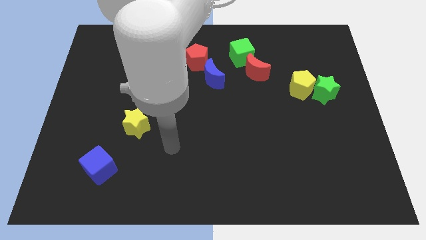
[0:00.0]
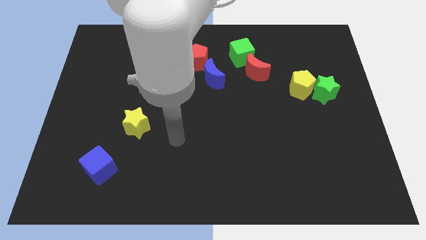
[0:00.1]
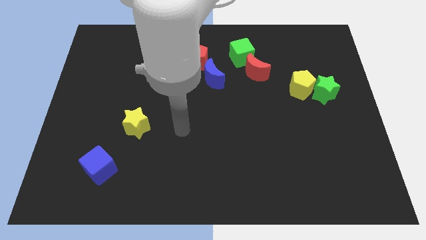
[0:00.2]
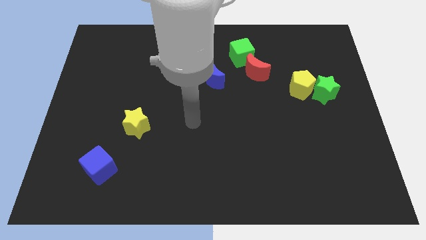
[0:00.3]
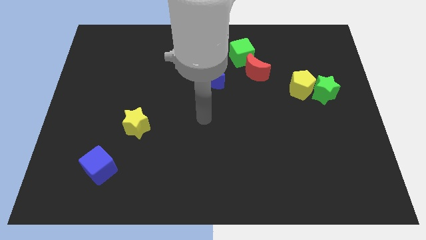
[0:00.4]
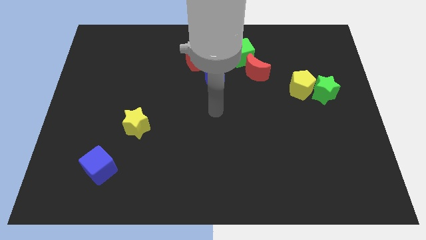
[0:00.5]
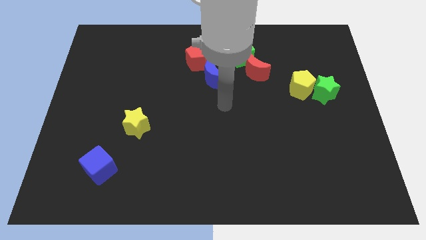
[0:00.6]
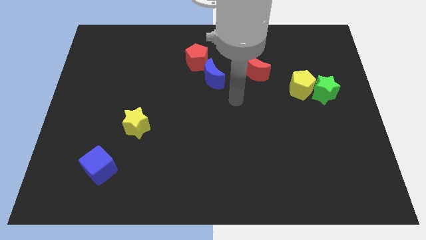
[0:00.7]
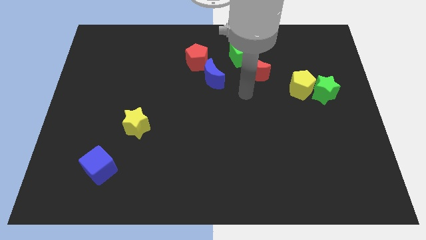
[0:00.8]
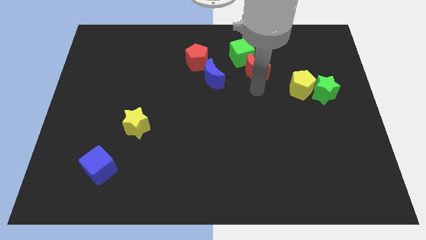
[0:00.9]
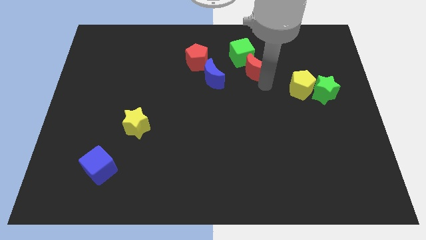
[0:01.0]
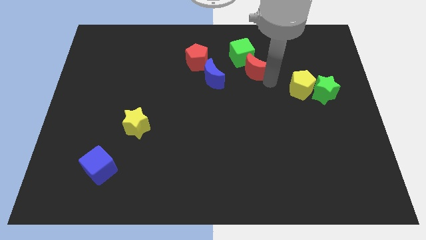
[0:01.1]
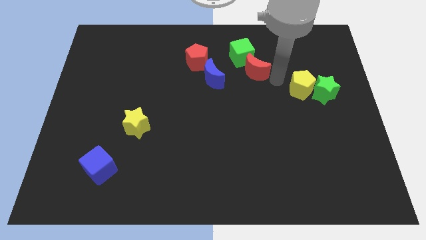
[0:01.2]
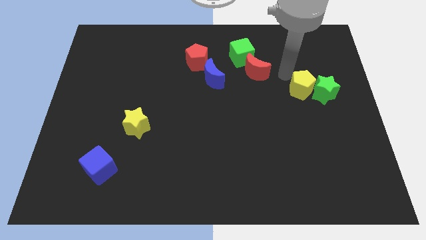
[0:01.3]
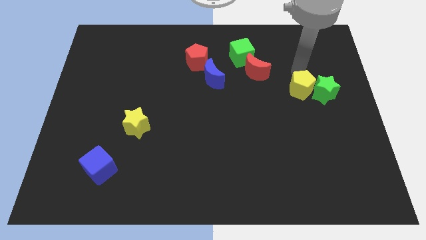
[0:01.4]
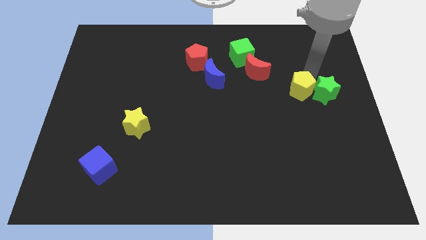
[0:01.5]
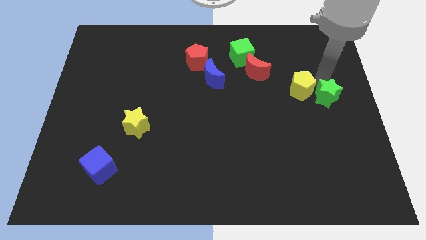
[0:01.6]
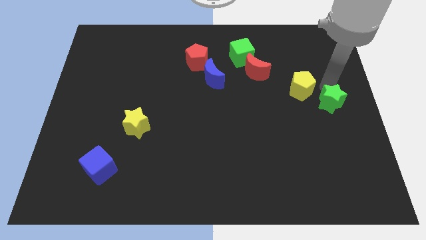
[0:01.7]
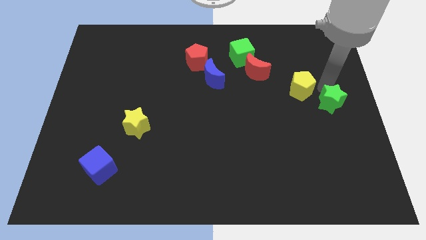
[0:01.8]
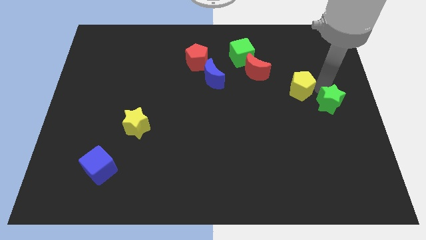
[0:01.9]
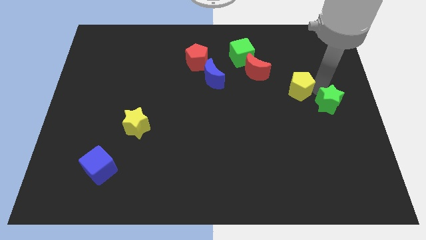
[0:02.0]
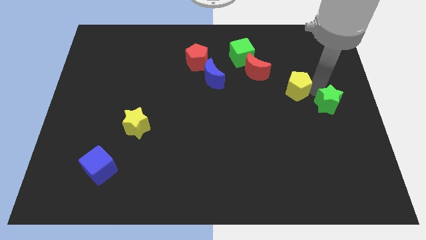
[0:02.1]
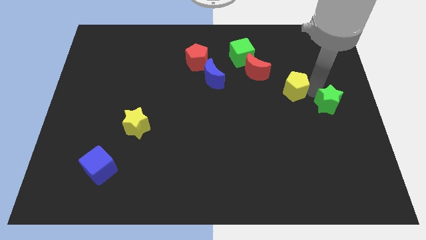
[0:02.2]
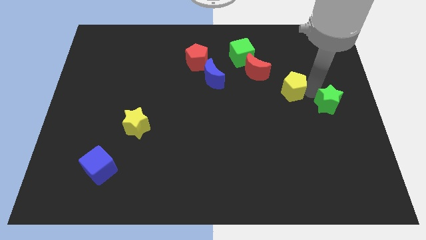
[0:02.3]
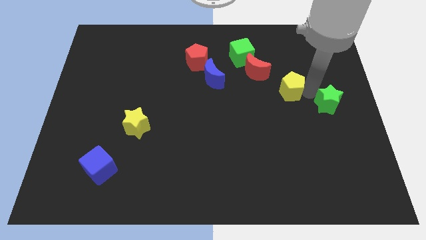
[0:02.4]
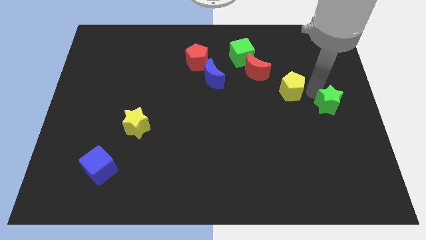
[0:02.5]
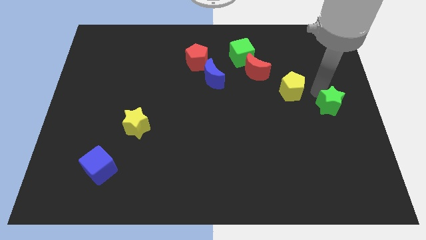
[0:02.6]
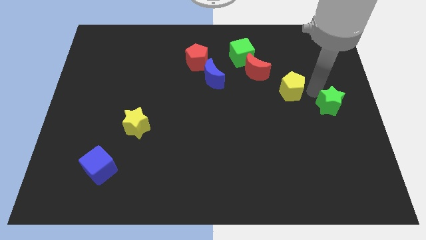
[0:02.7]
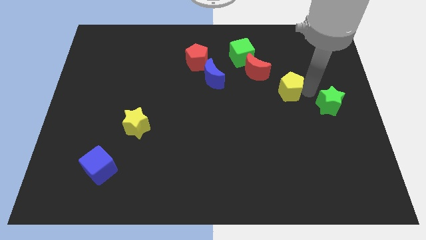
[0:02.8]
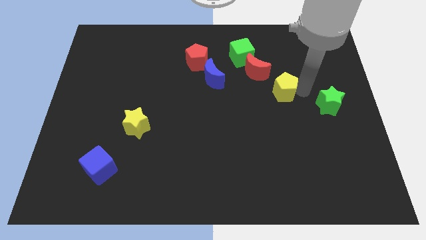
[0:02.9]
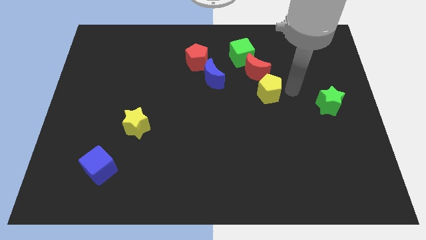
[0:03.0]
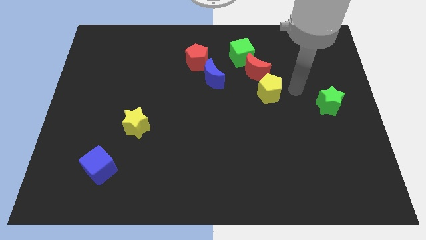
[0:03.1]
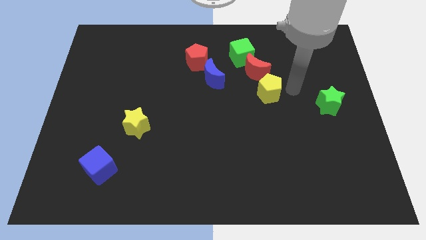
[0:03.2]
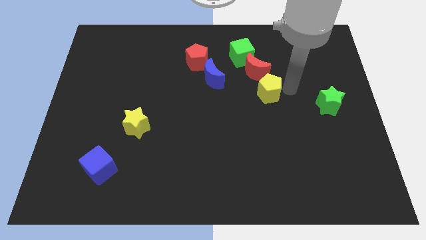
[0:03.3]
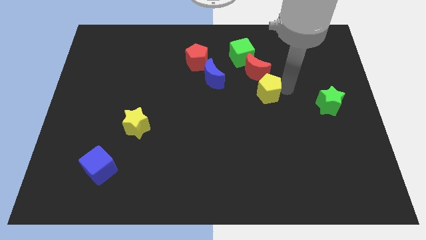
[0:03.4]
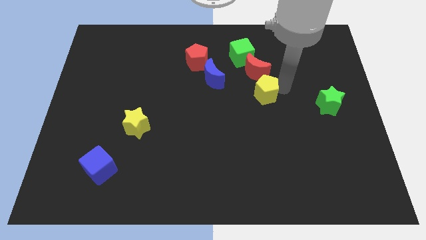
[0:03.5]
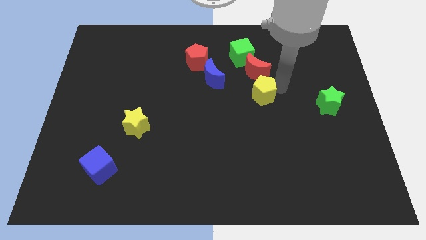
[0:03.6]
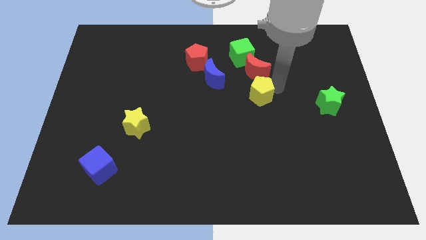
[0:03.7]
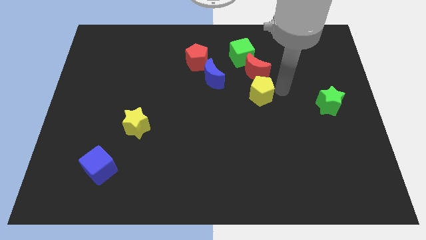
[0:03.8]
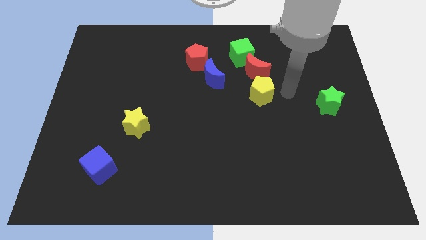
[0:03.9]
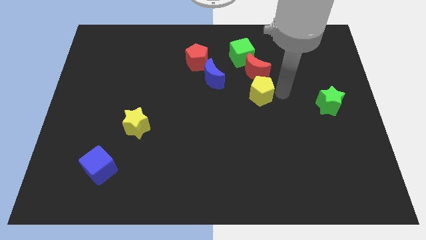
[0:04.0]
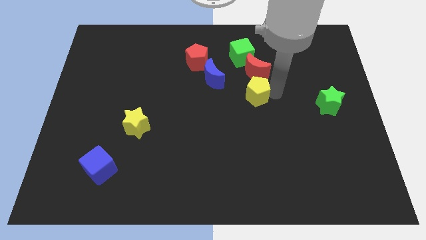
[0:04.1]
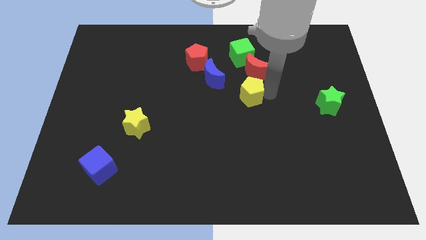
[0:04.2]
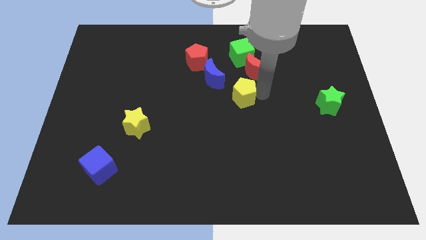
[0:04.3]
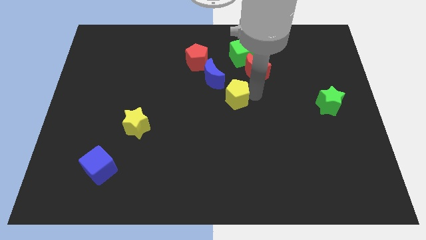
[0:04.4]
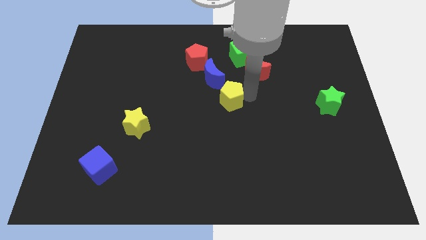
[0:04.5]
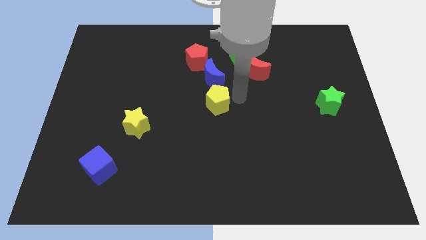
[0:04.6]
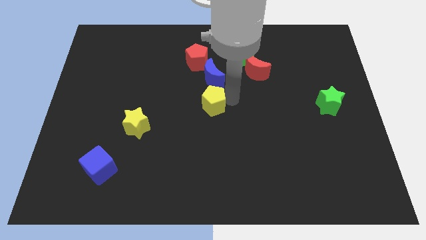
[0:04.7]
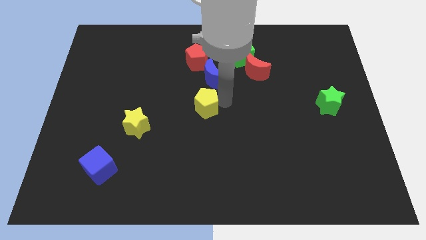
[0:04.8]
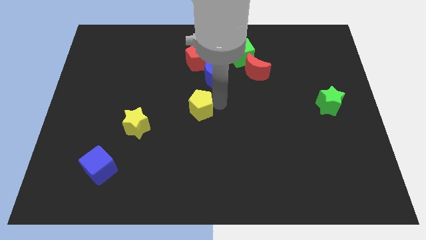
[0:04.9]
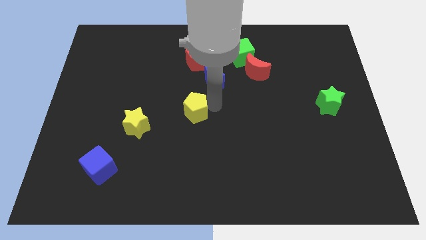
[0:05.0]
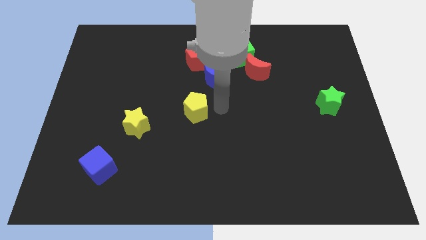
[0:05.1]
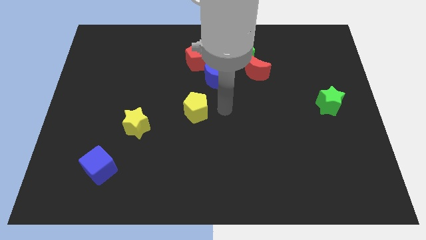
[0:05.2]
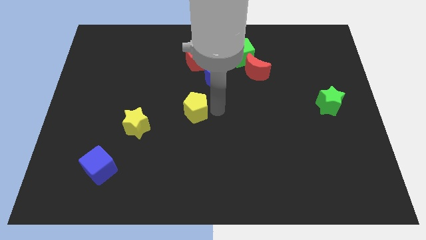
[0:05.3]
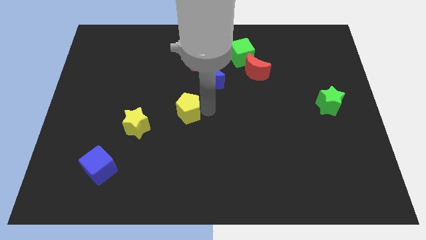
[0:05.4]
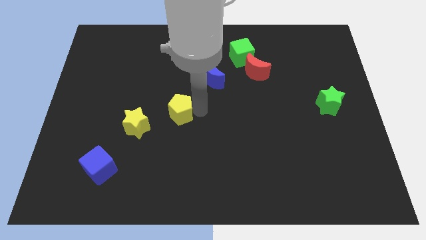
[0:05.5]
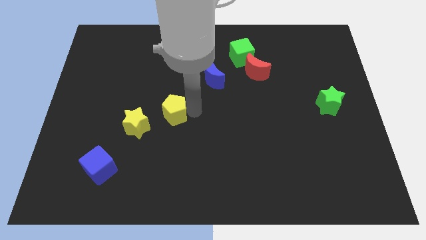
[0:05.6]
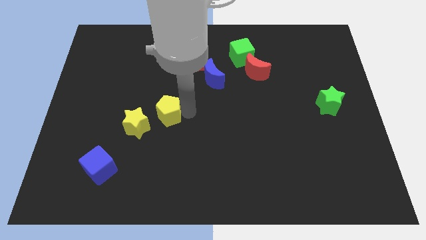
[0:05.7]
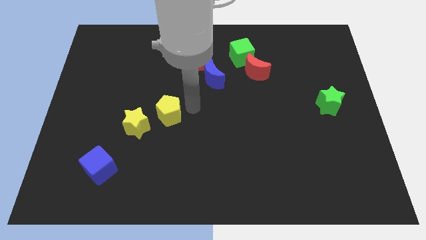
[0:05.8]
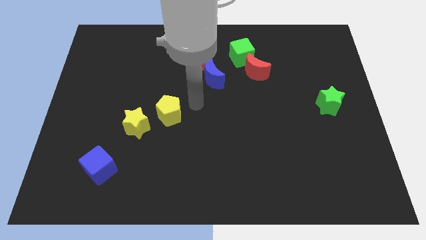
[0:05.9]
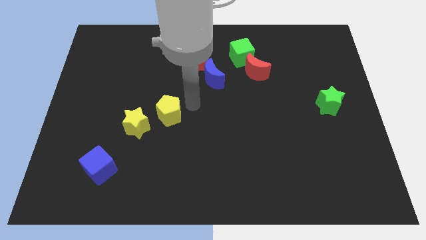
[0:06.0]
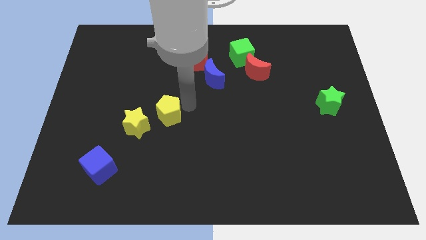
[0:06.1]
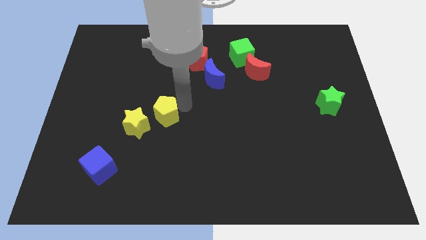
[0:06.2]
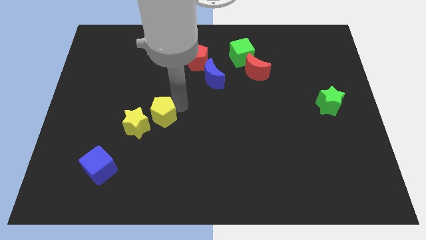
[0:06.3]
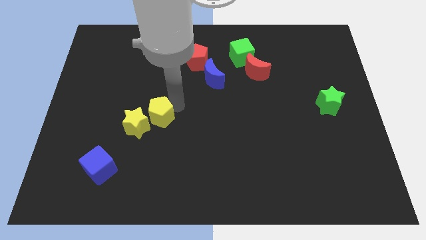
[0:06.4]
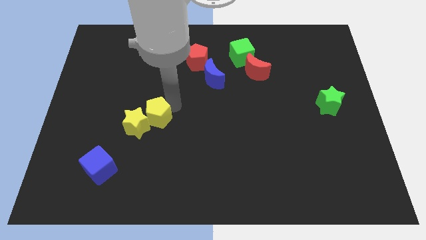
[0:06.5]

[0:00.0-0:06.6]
push the yellow pentagon towards the yellow star
